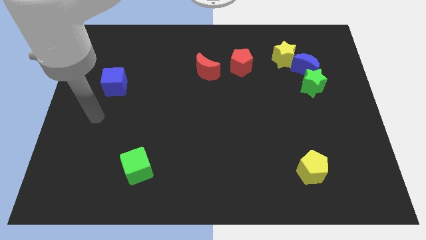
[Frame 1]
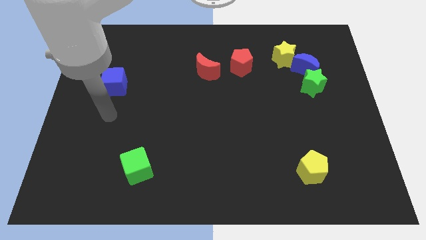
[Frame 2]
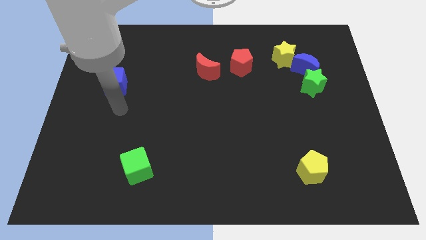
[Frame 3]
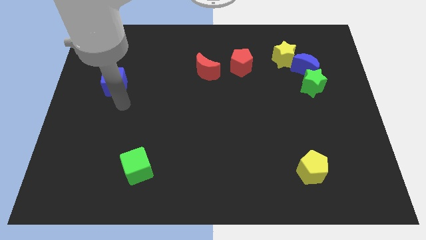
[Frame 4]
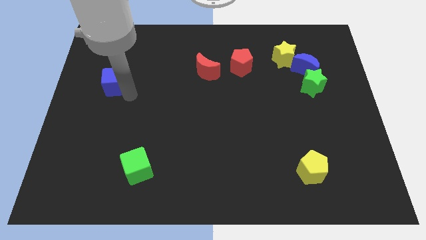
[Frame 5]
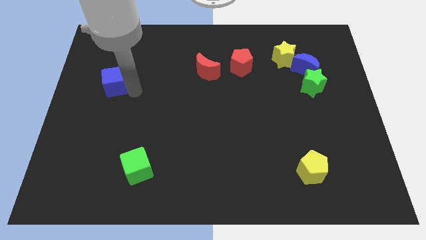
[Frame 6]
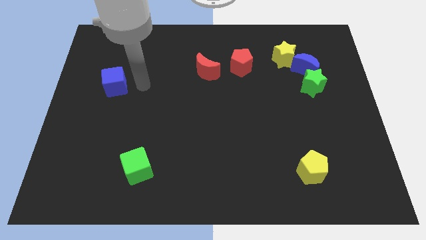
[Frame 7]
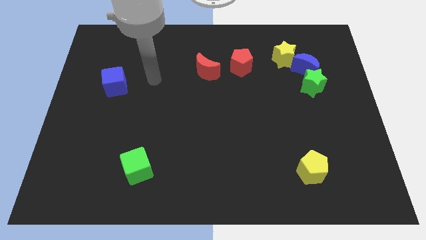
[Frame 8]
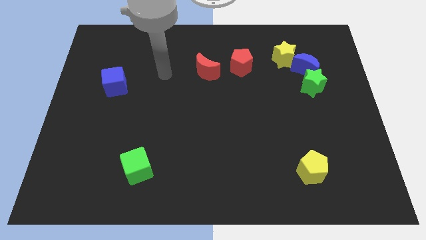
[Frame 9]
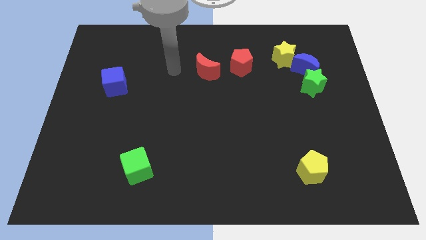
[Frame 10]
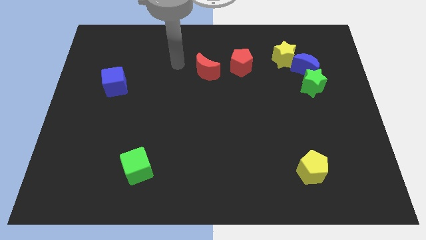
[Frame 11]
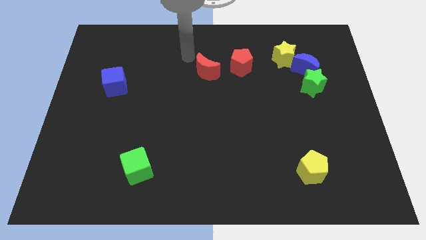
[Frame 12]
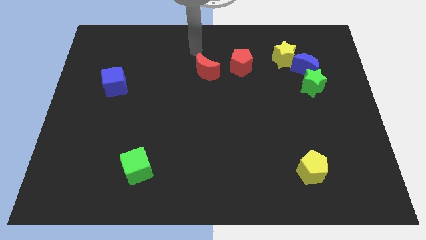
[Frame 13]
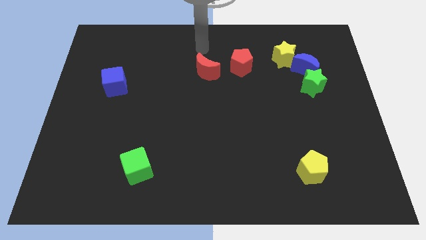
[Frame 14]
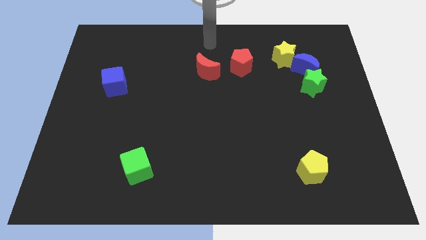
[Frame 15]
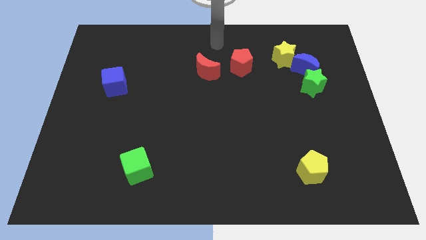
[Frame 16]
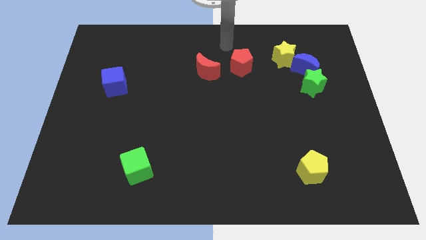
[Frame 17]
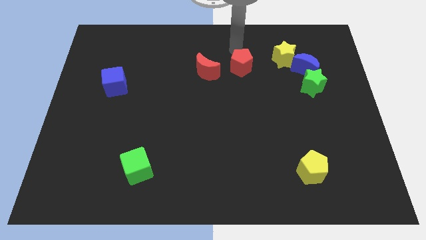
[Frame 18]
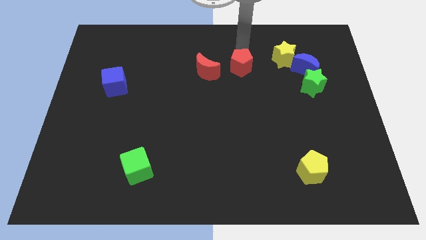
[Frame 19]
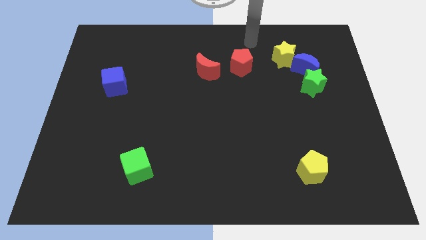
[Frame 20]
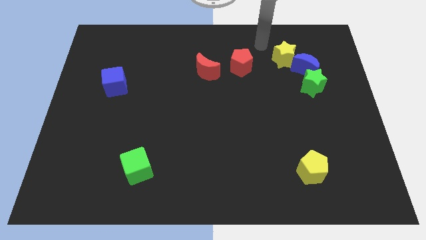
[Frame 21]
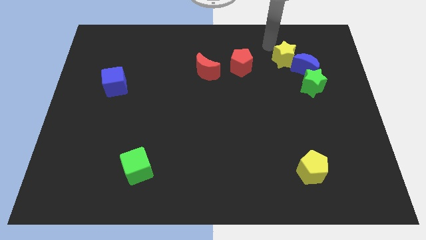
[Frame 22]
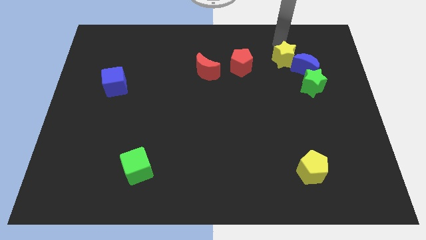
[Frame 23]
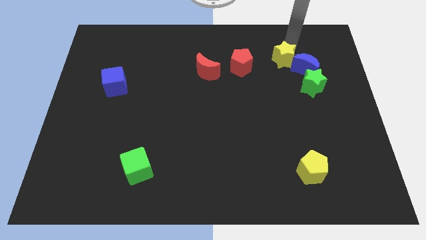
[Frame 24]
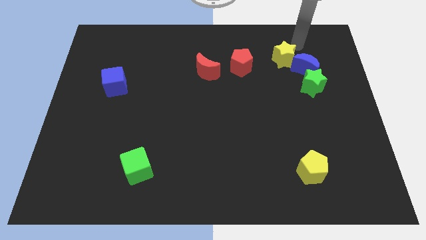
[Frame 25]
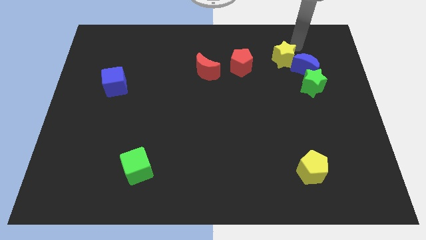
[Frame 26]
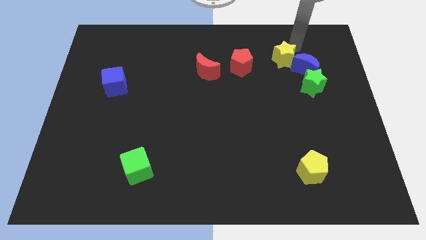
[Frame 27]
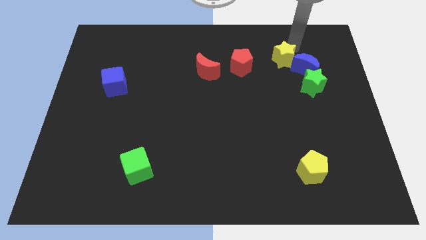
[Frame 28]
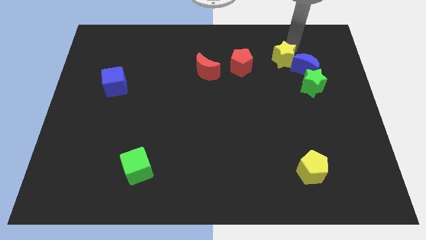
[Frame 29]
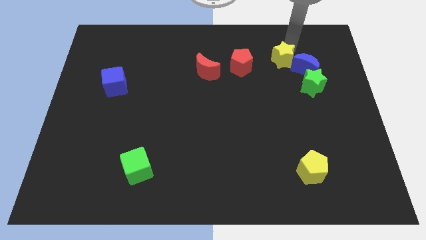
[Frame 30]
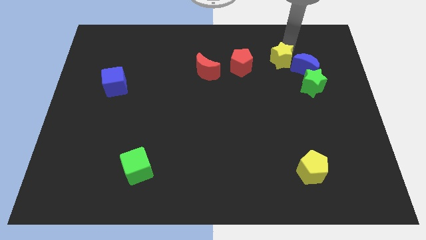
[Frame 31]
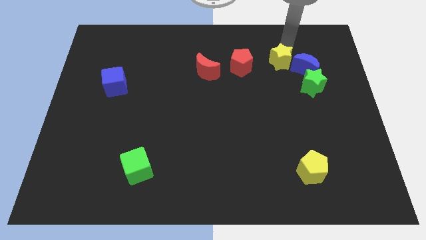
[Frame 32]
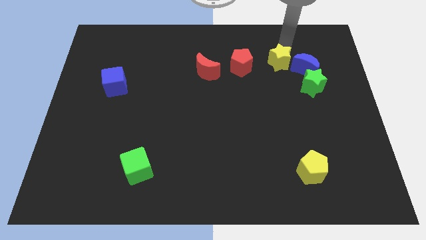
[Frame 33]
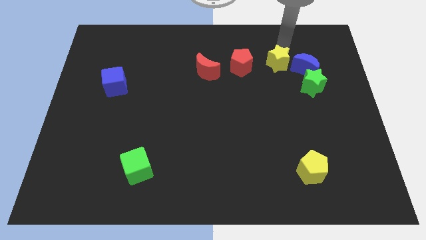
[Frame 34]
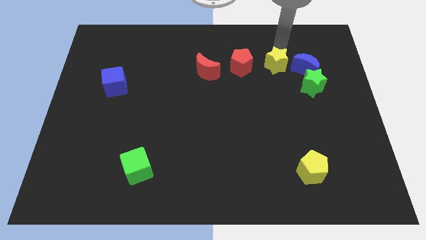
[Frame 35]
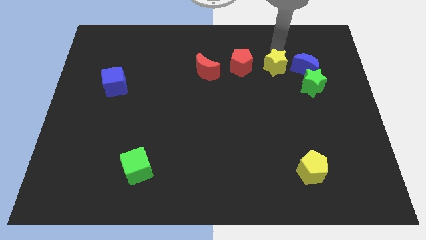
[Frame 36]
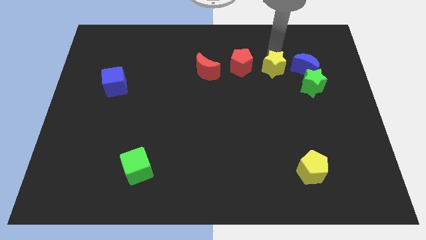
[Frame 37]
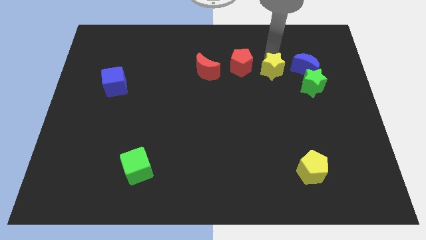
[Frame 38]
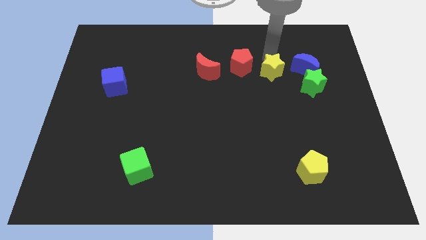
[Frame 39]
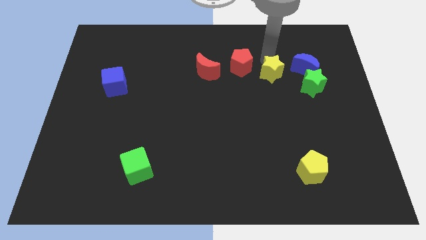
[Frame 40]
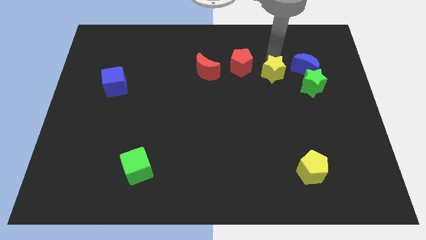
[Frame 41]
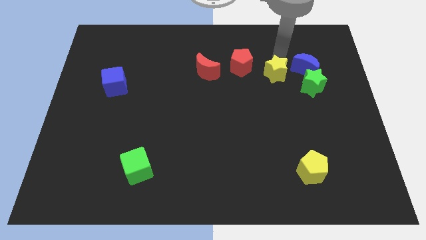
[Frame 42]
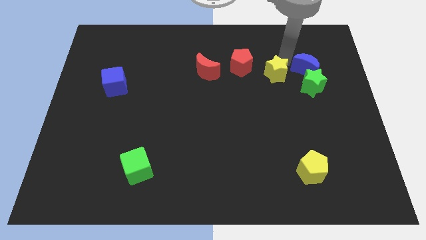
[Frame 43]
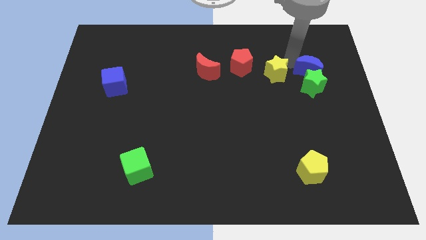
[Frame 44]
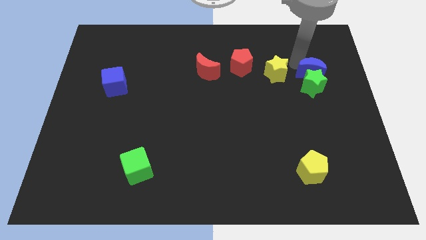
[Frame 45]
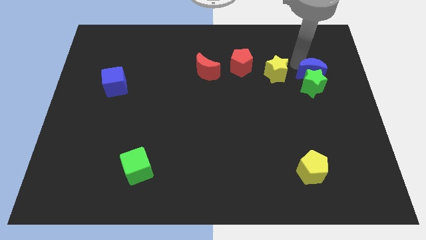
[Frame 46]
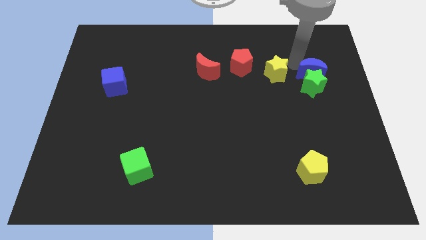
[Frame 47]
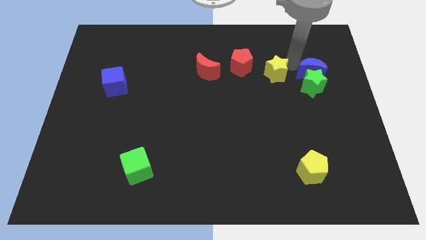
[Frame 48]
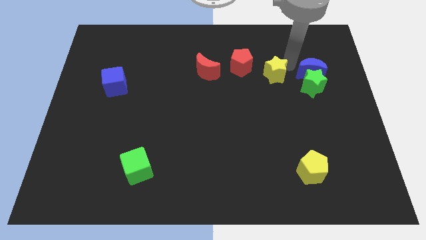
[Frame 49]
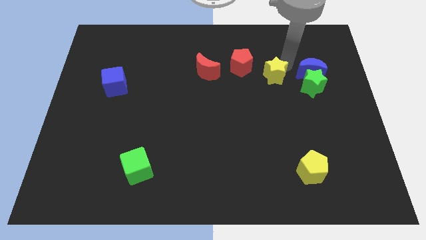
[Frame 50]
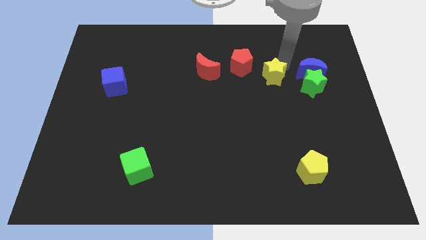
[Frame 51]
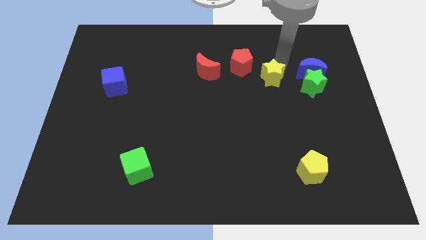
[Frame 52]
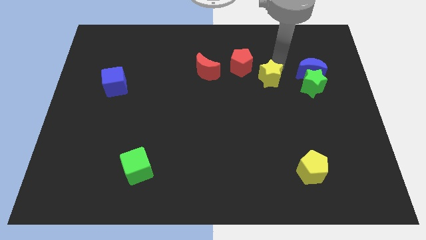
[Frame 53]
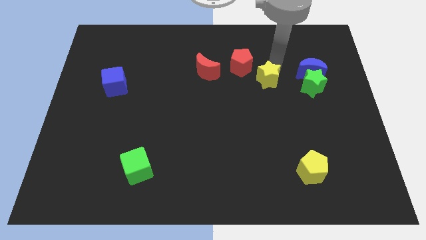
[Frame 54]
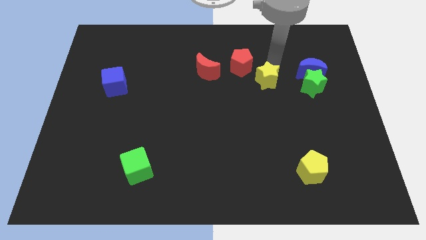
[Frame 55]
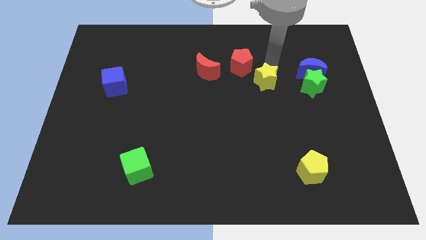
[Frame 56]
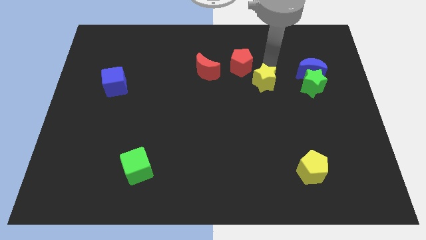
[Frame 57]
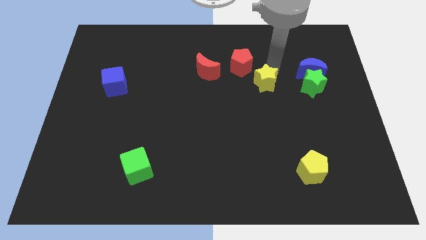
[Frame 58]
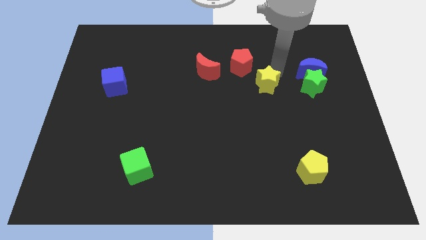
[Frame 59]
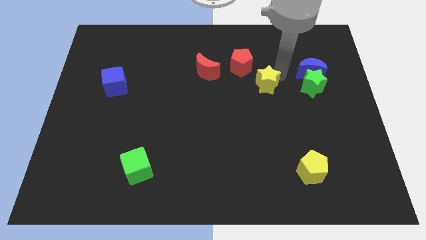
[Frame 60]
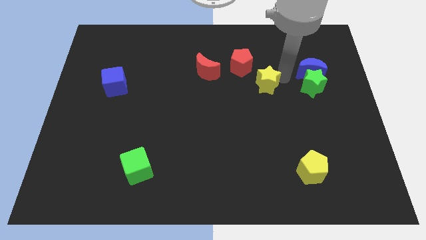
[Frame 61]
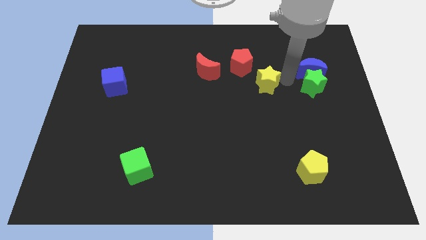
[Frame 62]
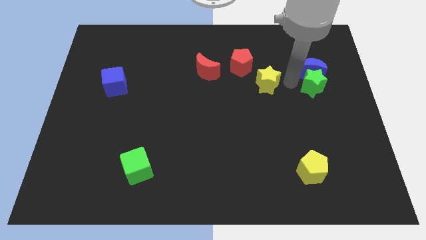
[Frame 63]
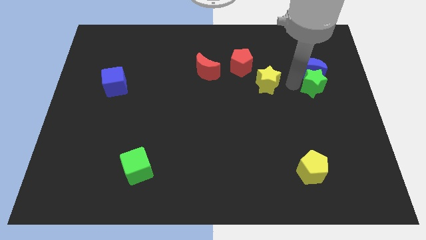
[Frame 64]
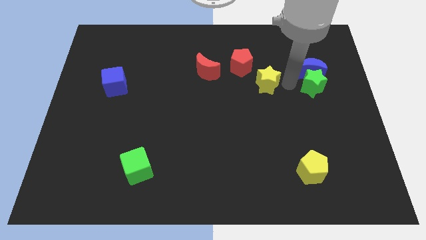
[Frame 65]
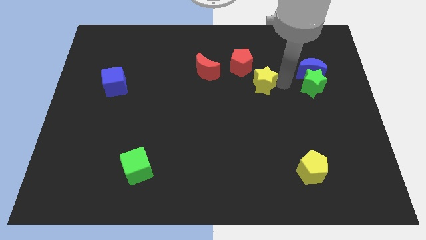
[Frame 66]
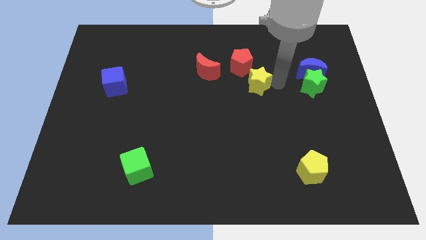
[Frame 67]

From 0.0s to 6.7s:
put the yellow star to the middle of the board

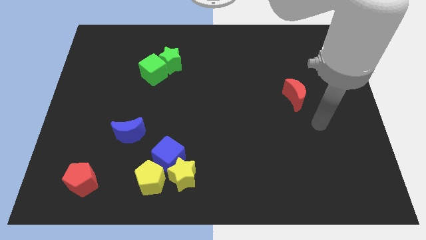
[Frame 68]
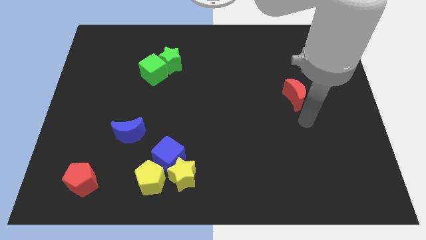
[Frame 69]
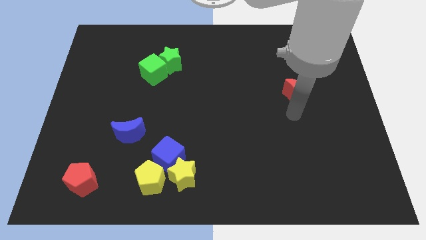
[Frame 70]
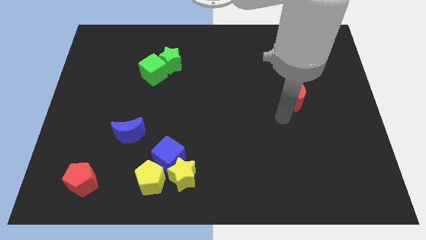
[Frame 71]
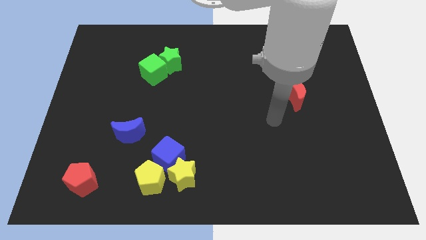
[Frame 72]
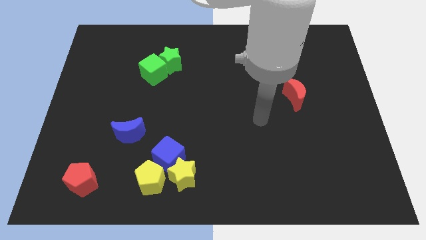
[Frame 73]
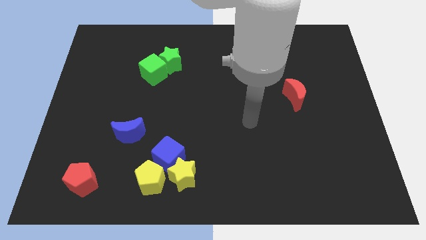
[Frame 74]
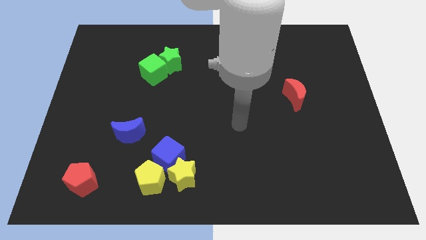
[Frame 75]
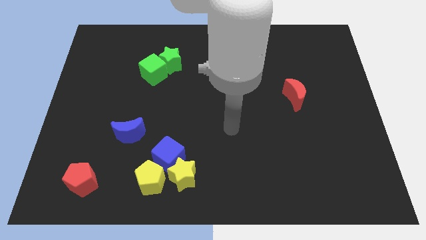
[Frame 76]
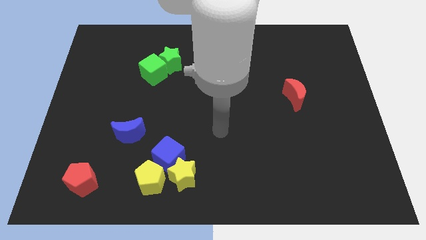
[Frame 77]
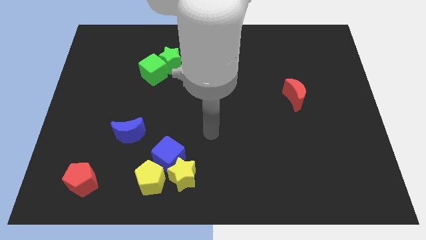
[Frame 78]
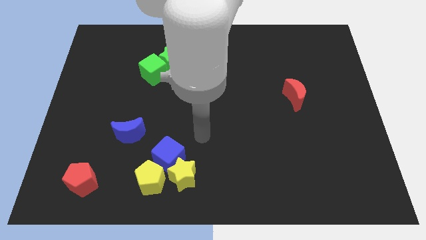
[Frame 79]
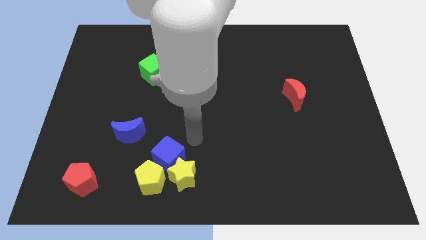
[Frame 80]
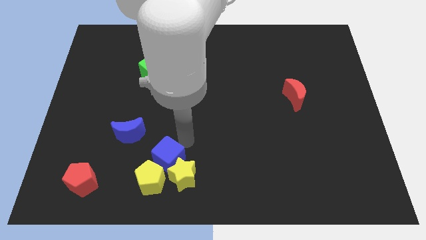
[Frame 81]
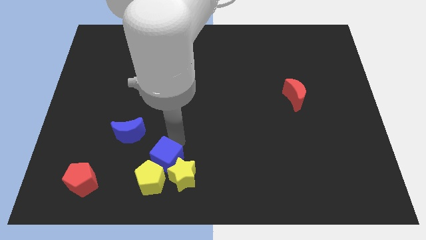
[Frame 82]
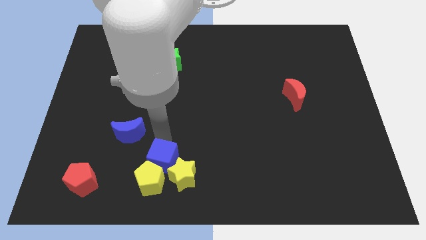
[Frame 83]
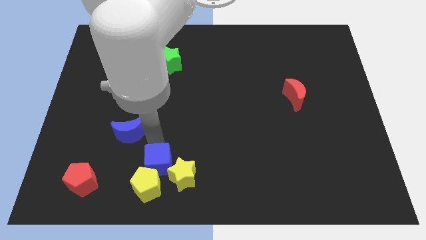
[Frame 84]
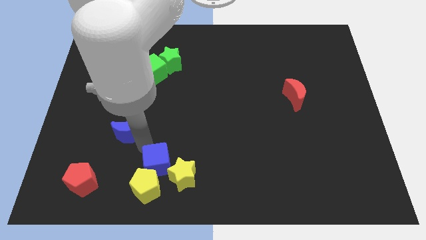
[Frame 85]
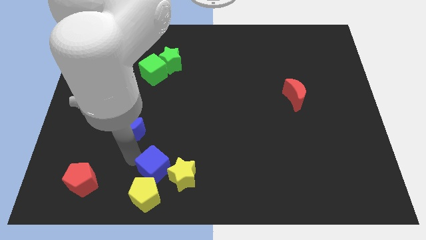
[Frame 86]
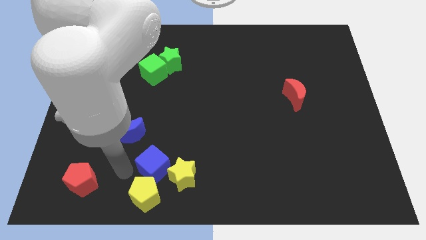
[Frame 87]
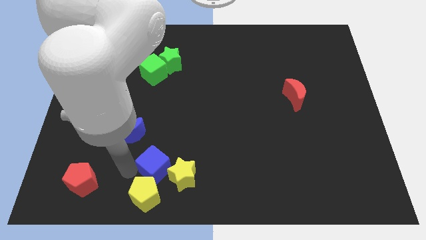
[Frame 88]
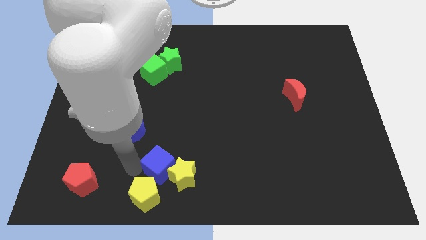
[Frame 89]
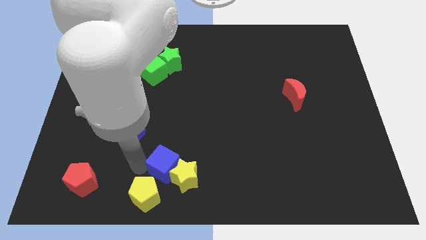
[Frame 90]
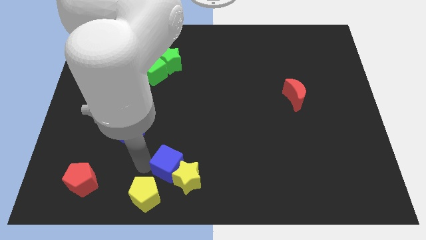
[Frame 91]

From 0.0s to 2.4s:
put the blue cube to the bottom side
